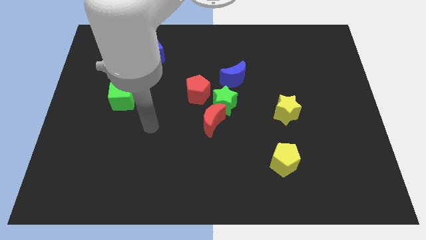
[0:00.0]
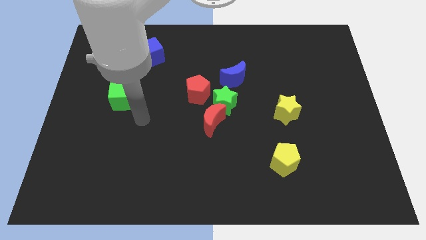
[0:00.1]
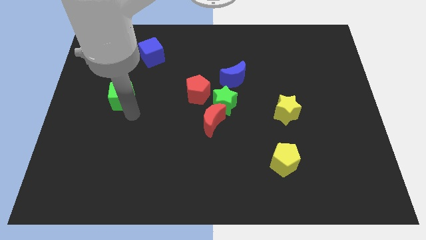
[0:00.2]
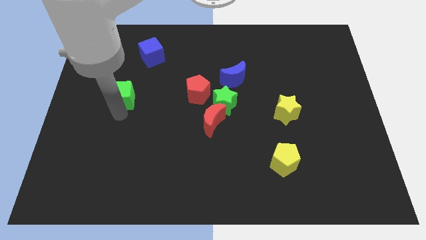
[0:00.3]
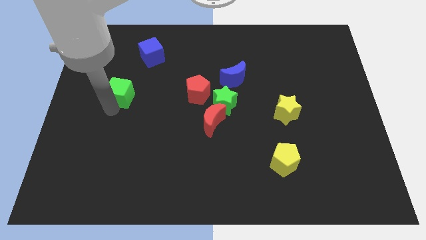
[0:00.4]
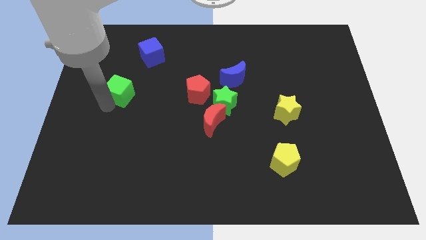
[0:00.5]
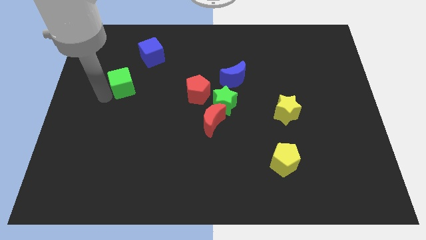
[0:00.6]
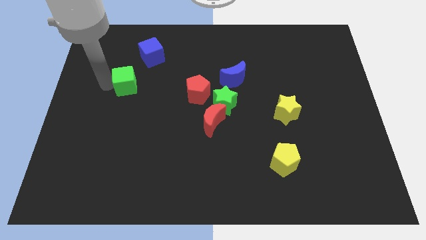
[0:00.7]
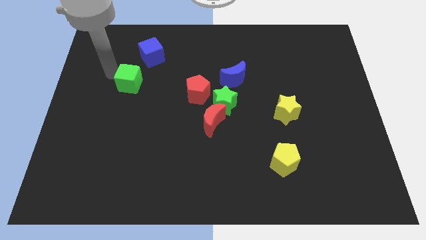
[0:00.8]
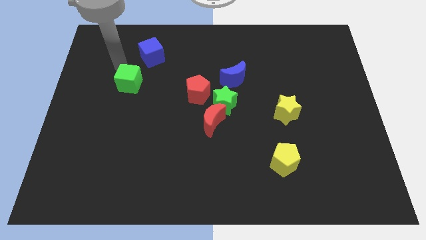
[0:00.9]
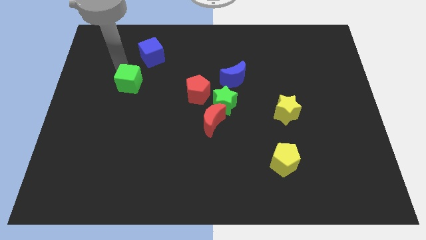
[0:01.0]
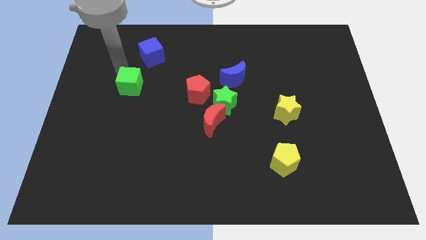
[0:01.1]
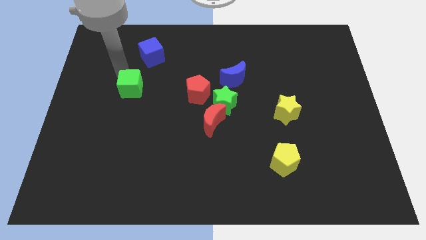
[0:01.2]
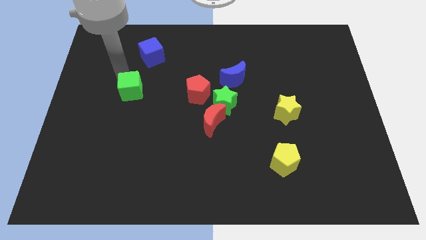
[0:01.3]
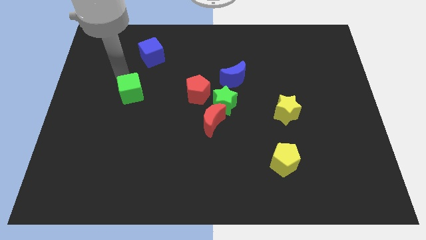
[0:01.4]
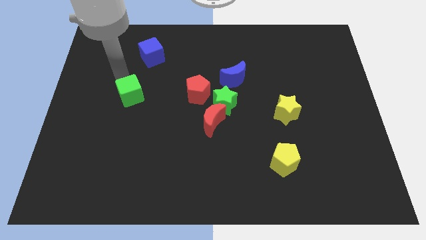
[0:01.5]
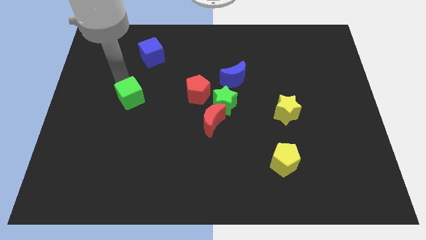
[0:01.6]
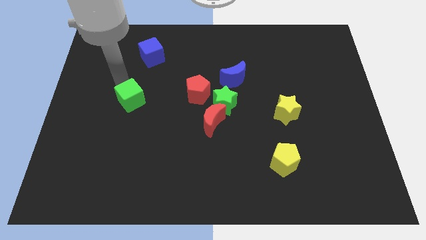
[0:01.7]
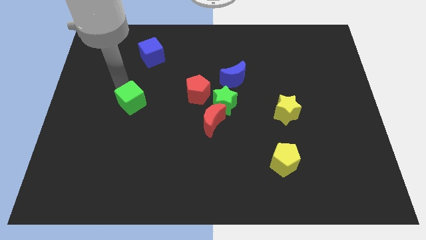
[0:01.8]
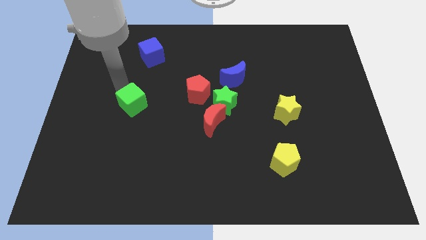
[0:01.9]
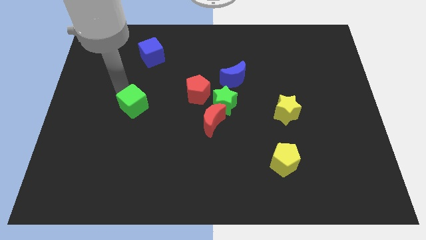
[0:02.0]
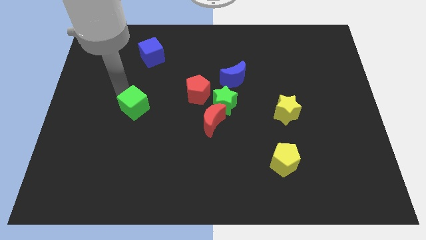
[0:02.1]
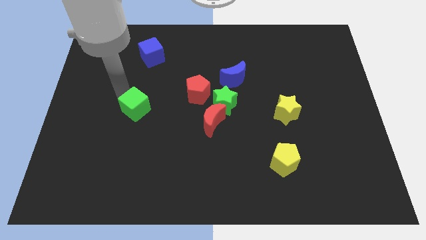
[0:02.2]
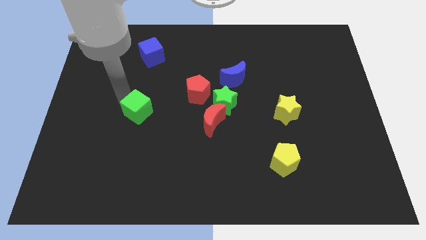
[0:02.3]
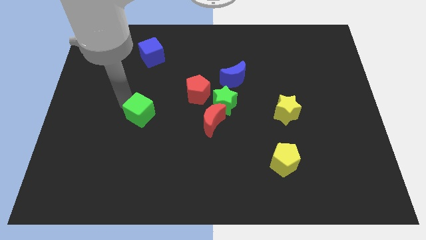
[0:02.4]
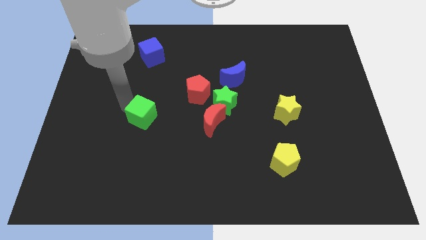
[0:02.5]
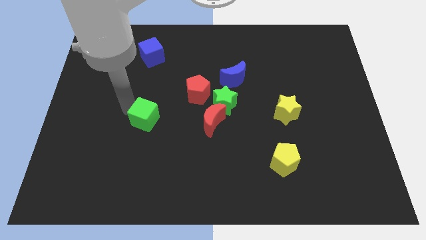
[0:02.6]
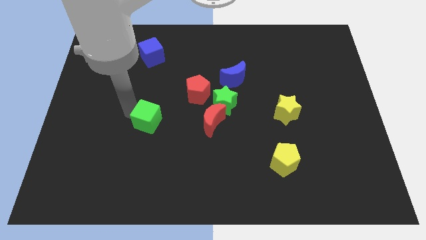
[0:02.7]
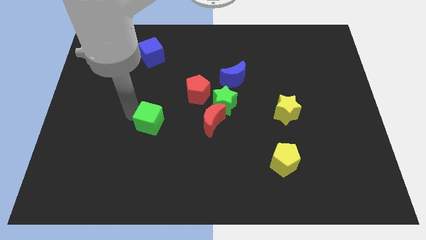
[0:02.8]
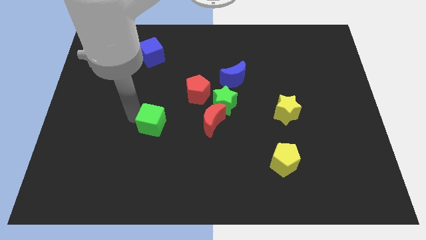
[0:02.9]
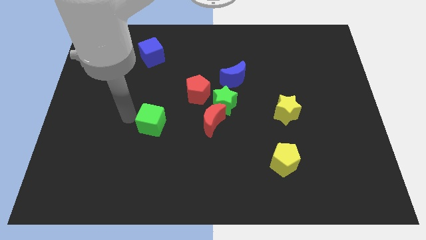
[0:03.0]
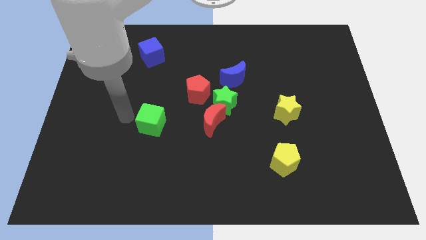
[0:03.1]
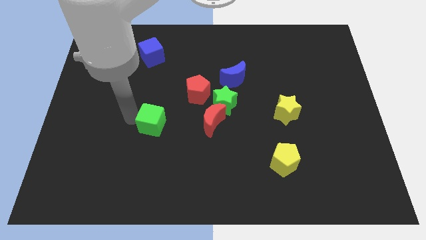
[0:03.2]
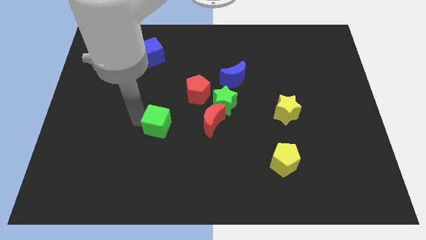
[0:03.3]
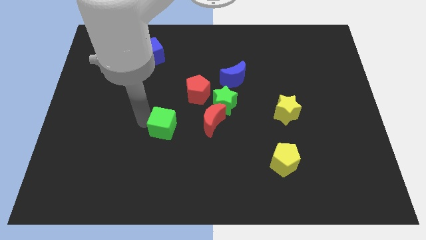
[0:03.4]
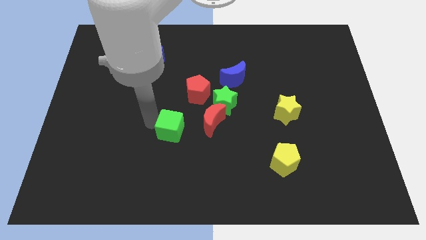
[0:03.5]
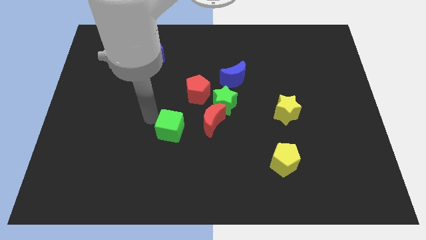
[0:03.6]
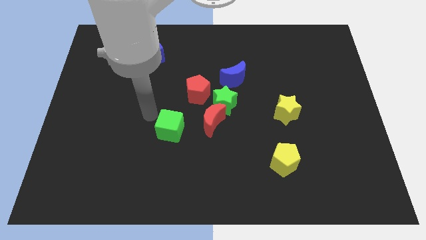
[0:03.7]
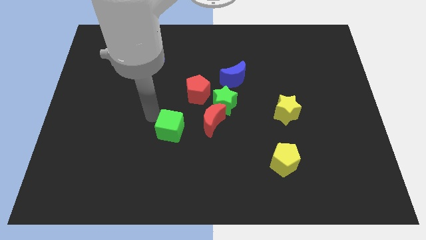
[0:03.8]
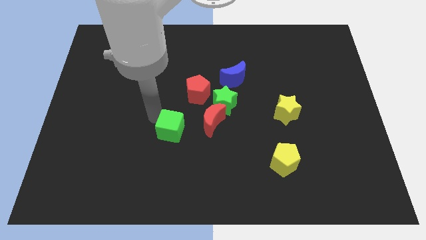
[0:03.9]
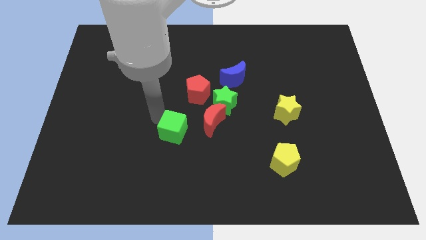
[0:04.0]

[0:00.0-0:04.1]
put the green cube to the bottom left side of the red moon

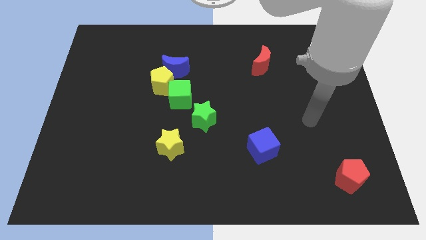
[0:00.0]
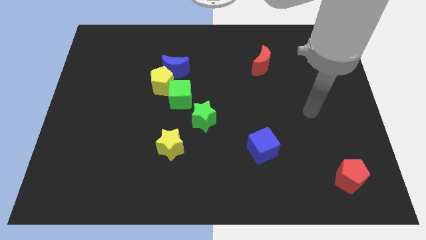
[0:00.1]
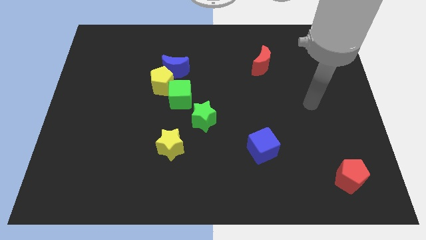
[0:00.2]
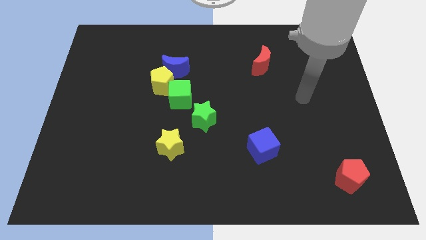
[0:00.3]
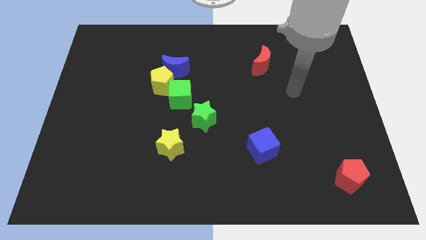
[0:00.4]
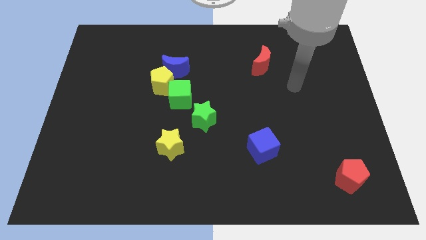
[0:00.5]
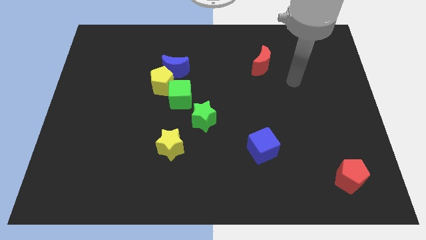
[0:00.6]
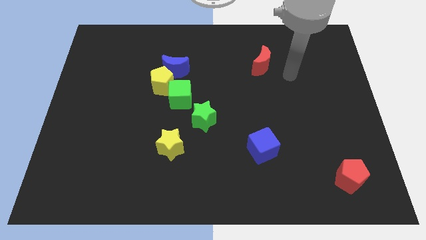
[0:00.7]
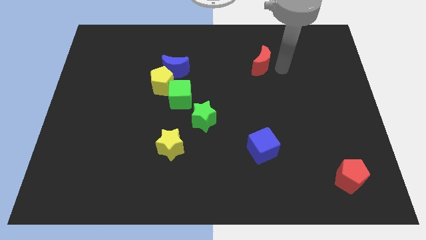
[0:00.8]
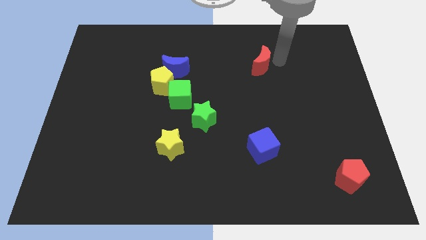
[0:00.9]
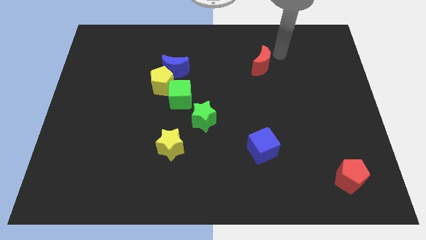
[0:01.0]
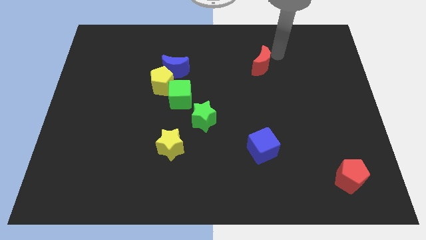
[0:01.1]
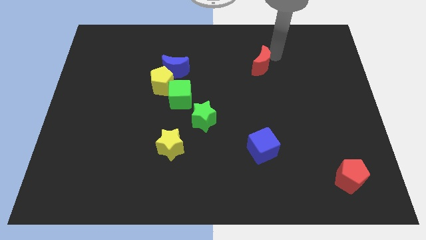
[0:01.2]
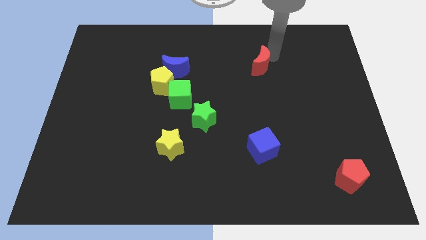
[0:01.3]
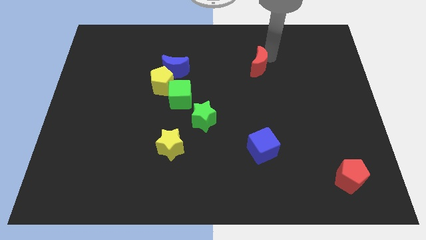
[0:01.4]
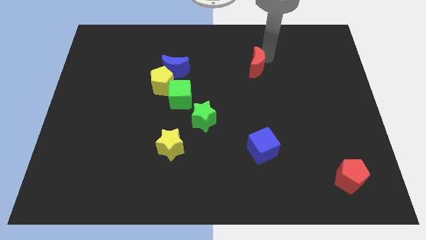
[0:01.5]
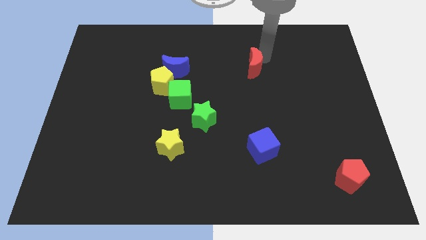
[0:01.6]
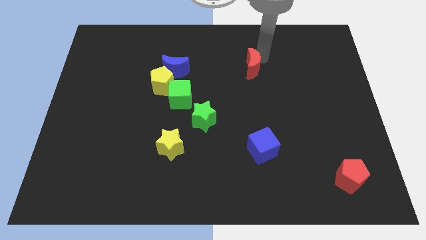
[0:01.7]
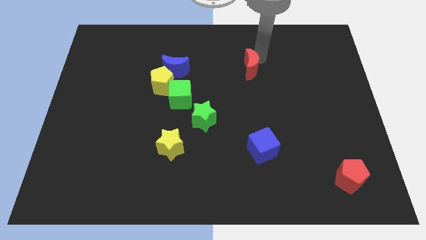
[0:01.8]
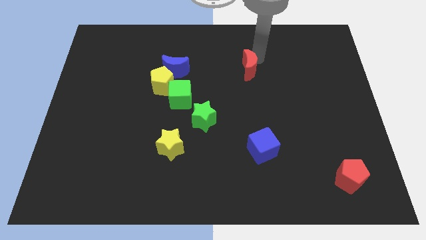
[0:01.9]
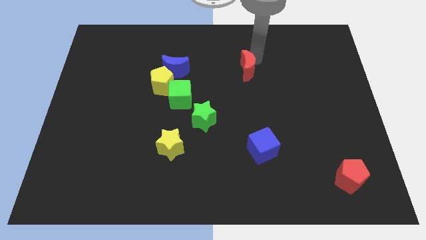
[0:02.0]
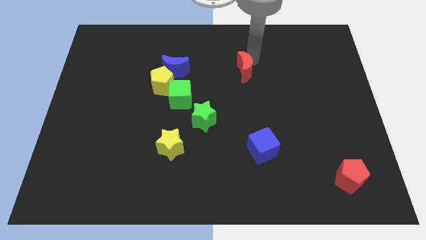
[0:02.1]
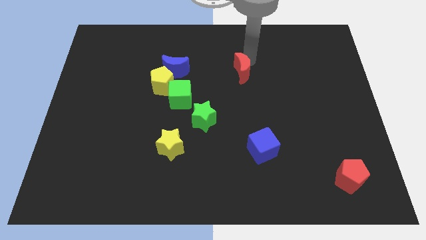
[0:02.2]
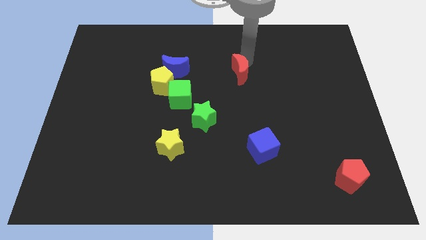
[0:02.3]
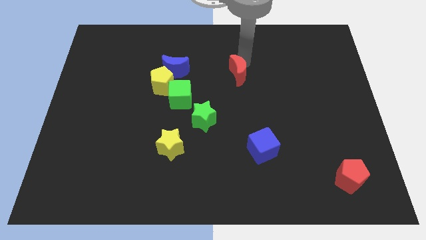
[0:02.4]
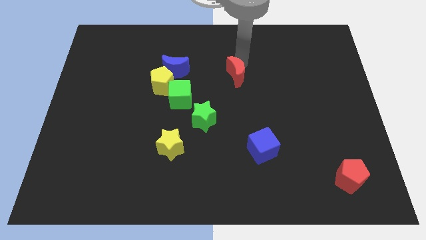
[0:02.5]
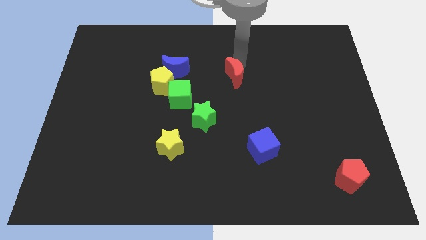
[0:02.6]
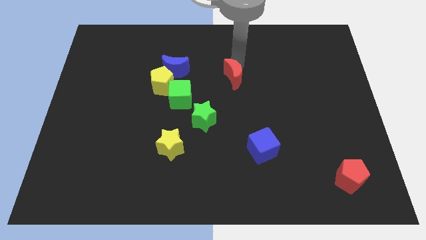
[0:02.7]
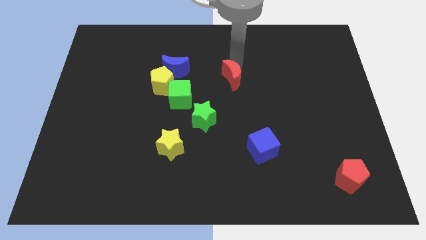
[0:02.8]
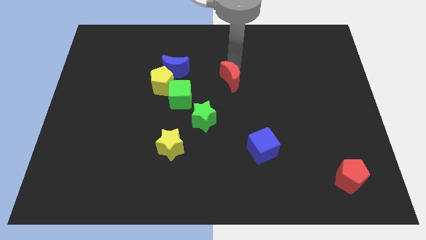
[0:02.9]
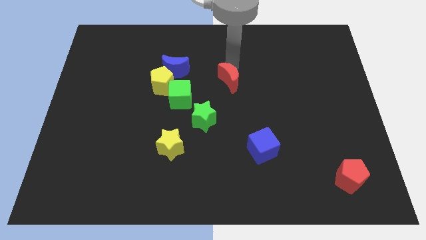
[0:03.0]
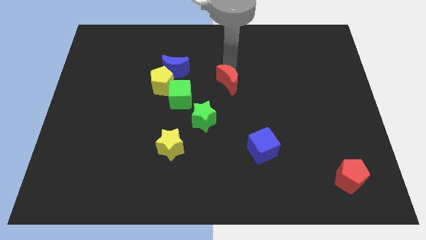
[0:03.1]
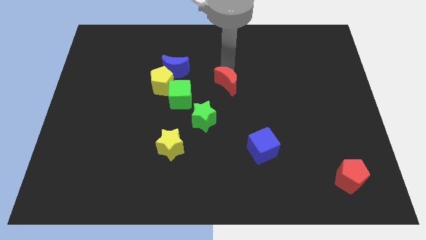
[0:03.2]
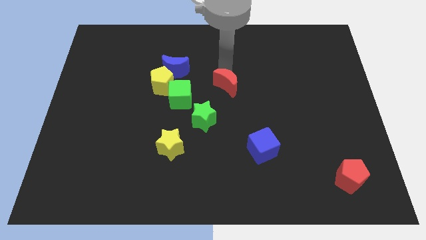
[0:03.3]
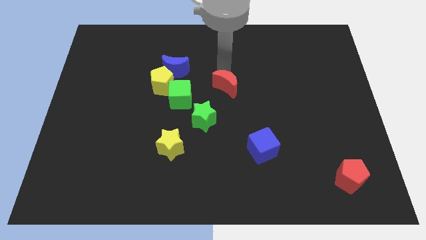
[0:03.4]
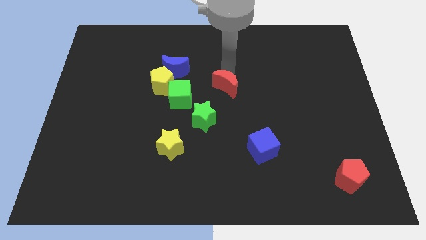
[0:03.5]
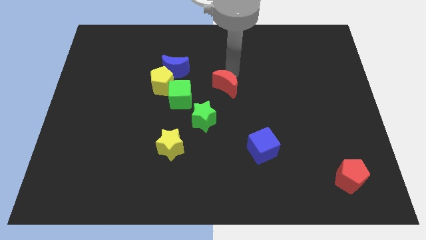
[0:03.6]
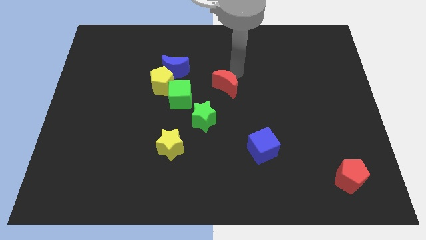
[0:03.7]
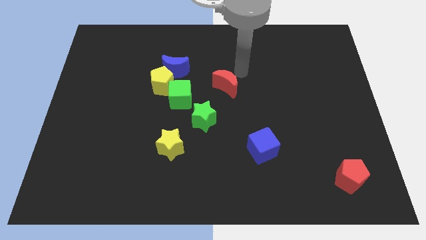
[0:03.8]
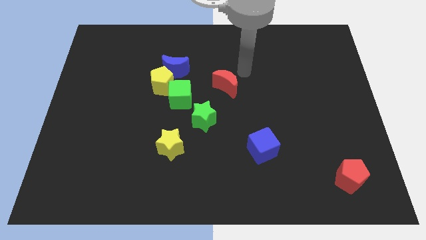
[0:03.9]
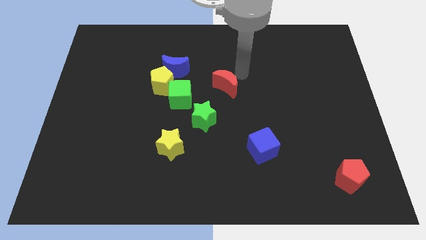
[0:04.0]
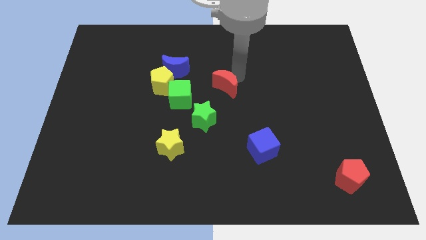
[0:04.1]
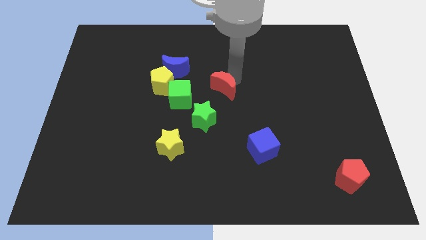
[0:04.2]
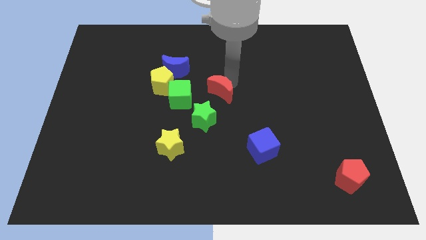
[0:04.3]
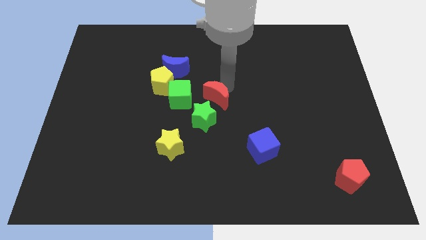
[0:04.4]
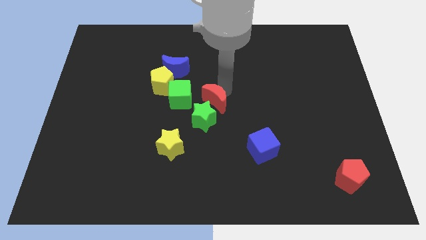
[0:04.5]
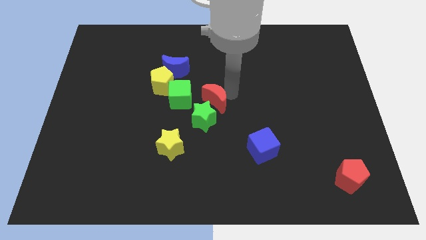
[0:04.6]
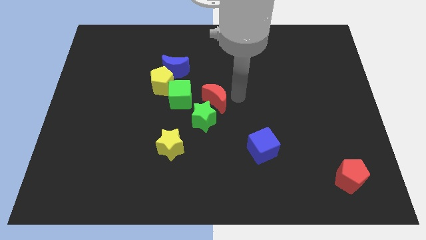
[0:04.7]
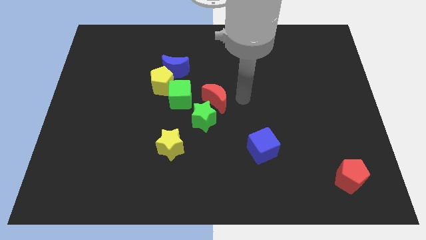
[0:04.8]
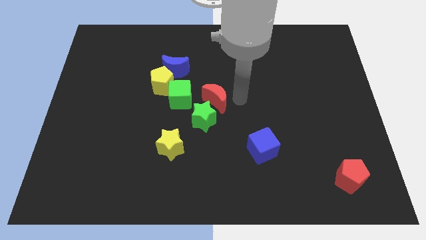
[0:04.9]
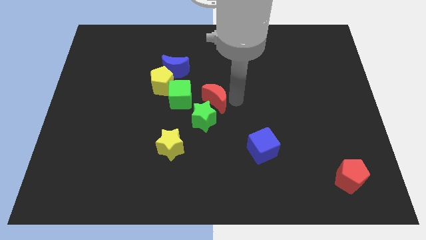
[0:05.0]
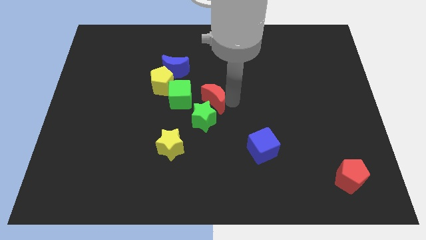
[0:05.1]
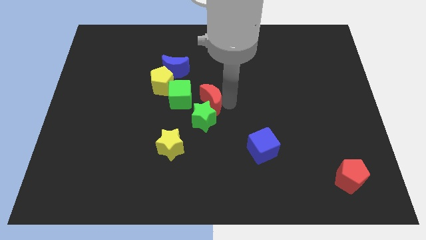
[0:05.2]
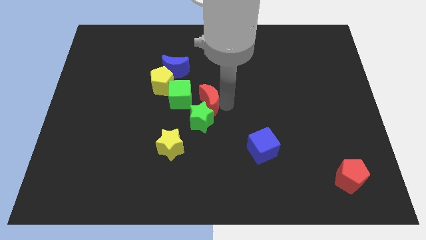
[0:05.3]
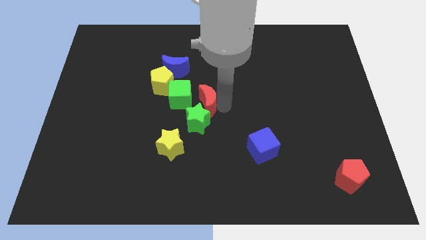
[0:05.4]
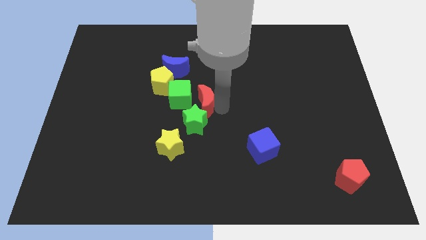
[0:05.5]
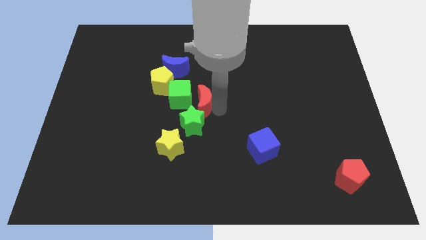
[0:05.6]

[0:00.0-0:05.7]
slide the red moon diagonally down and to the right of the yellow pentagon
